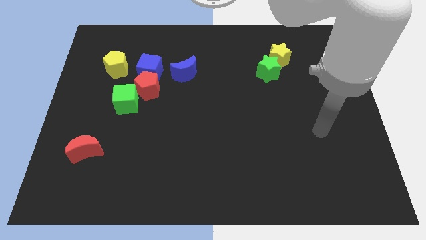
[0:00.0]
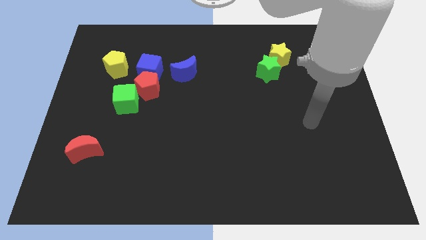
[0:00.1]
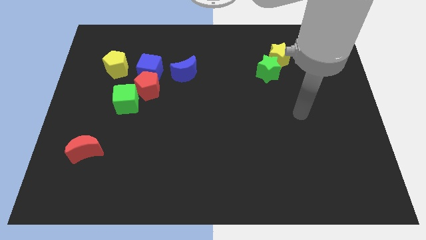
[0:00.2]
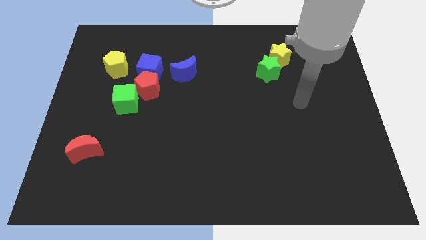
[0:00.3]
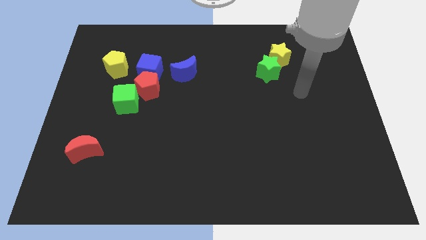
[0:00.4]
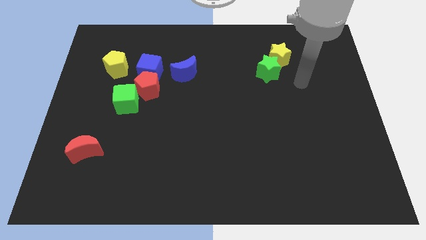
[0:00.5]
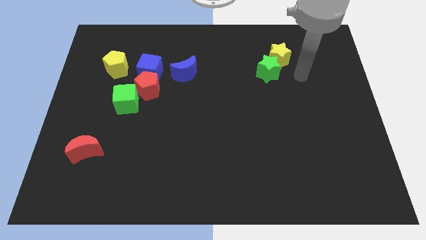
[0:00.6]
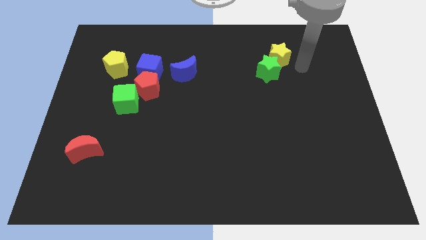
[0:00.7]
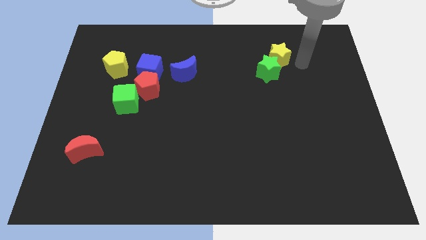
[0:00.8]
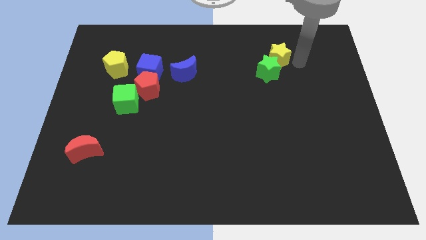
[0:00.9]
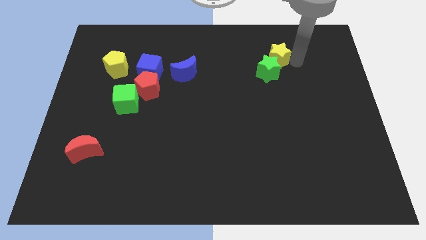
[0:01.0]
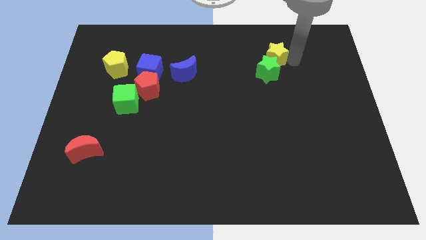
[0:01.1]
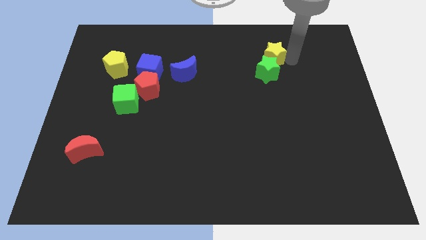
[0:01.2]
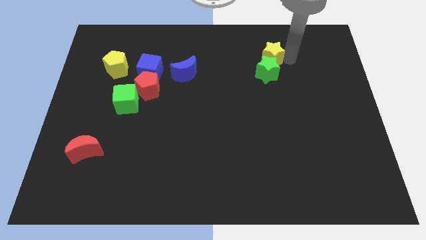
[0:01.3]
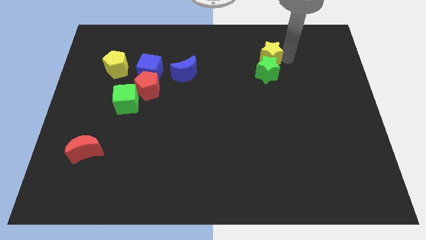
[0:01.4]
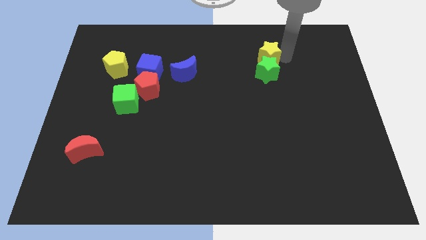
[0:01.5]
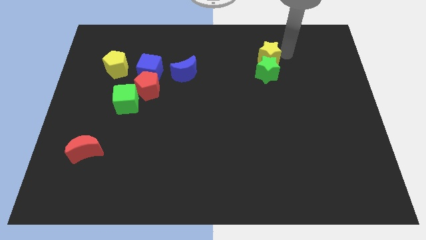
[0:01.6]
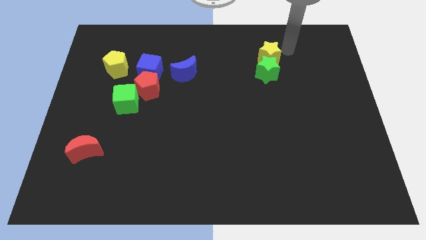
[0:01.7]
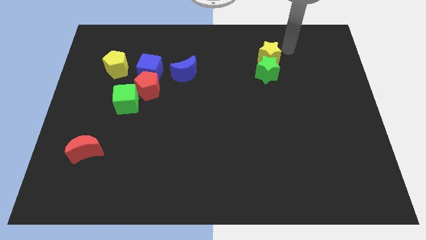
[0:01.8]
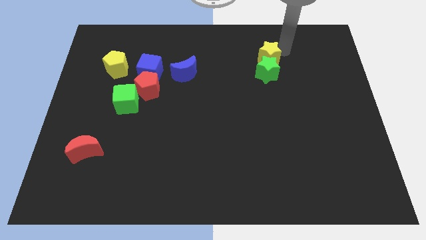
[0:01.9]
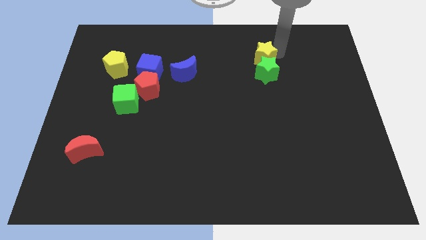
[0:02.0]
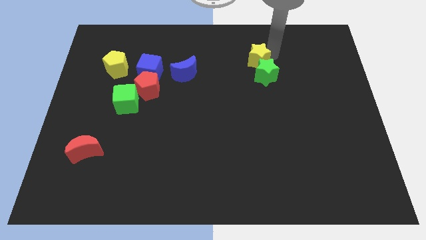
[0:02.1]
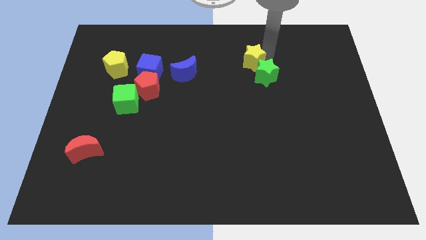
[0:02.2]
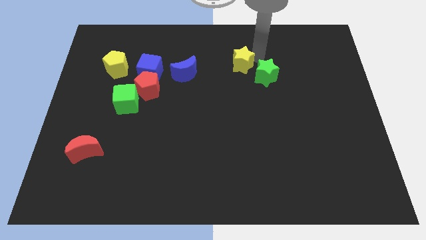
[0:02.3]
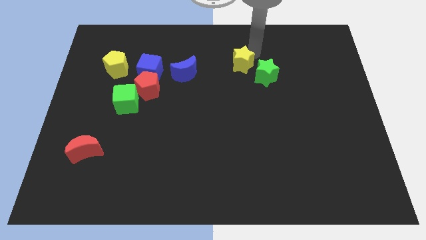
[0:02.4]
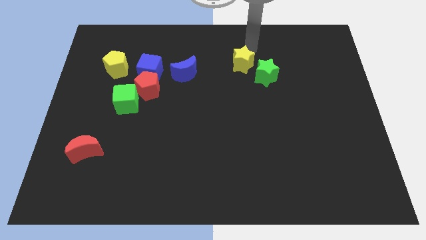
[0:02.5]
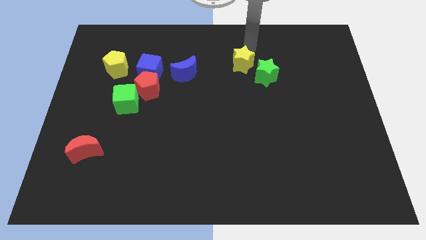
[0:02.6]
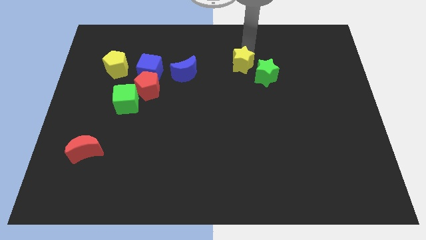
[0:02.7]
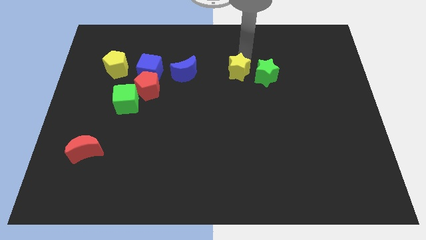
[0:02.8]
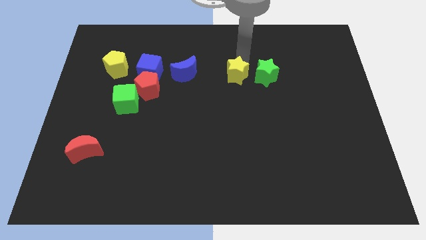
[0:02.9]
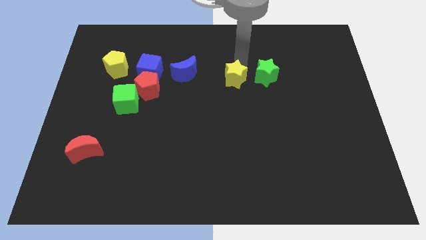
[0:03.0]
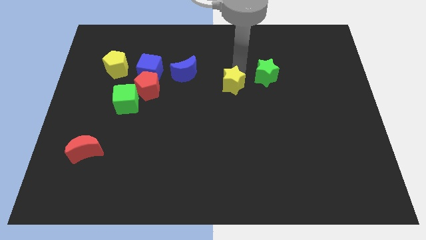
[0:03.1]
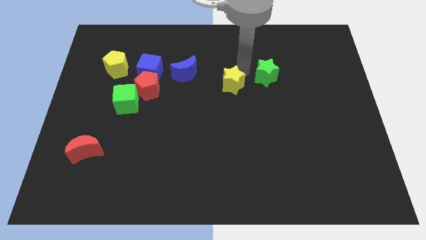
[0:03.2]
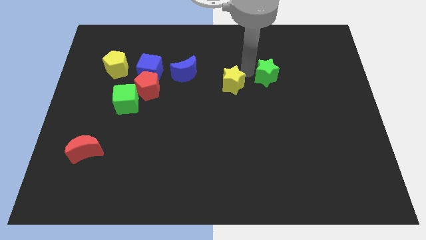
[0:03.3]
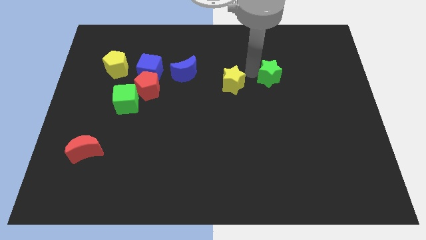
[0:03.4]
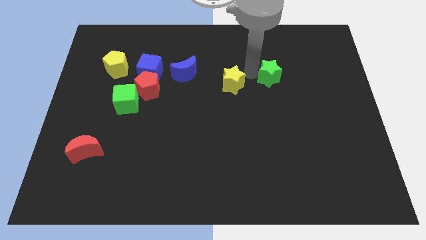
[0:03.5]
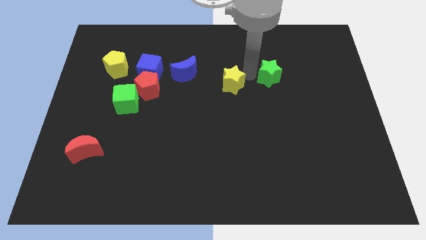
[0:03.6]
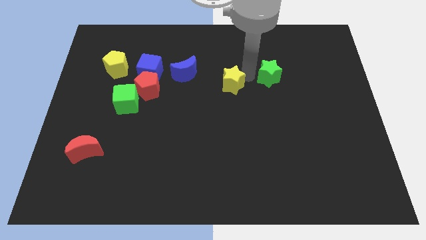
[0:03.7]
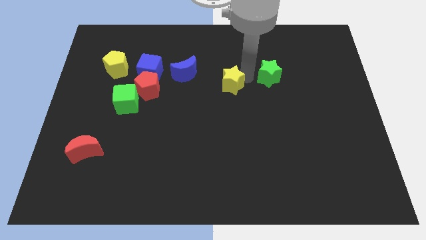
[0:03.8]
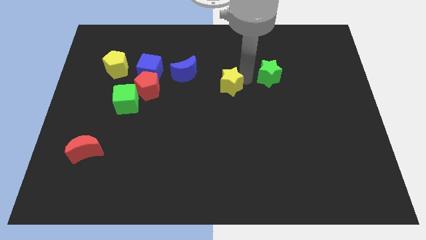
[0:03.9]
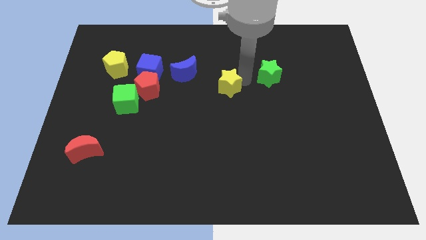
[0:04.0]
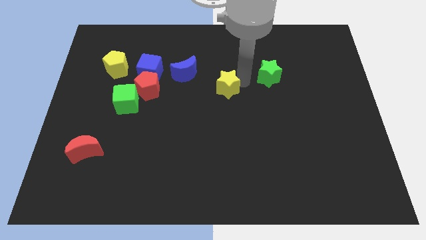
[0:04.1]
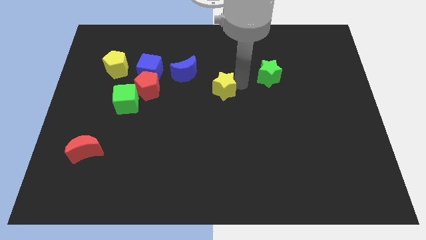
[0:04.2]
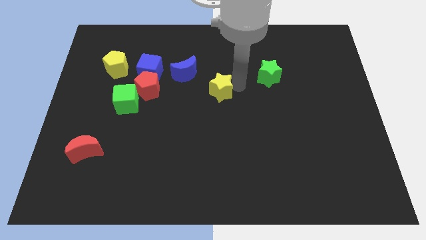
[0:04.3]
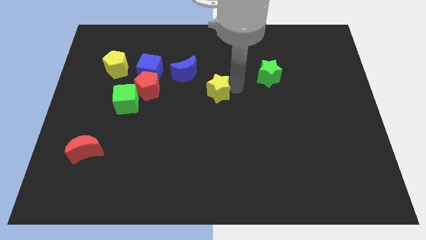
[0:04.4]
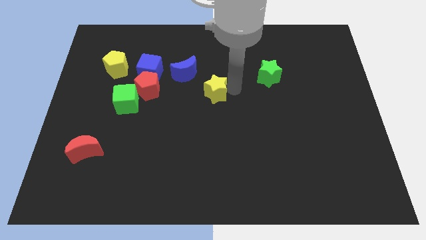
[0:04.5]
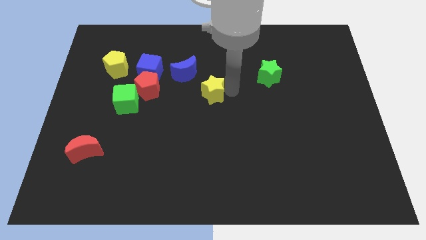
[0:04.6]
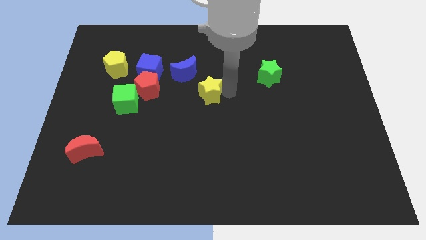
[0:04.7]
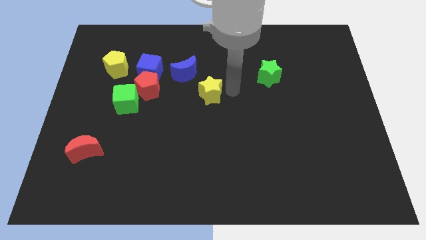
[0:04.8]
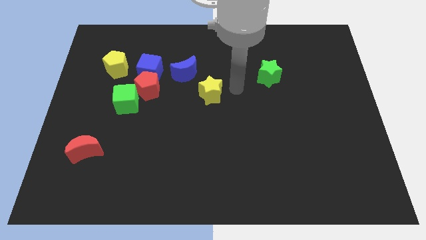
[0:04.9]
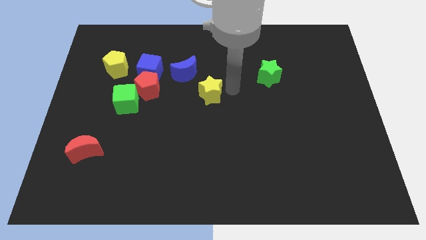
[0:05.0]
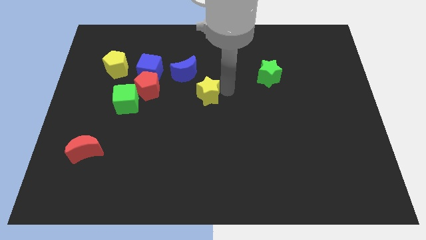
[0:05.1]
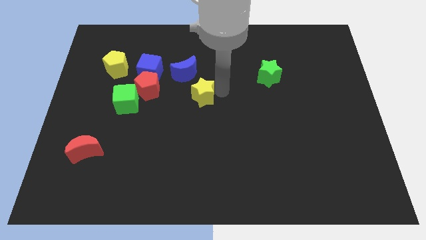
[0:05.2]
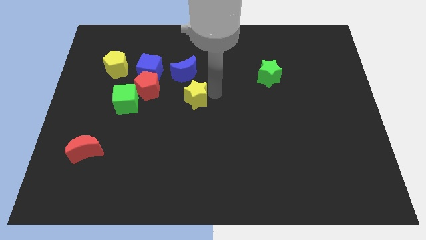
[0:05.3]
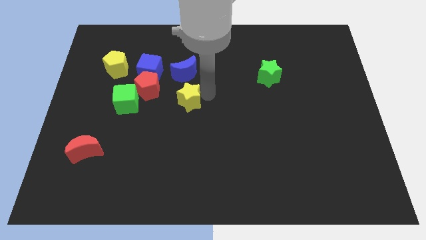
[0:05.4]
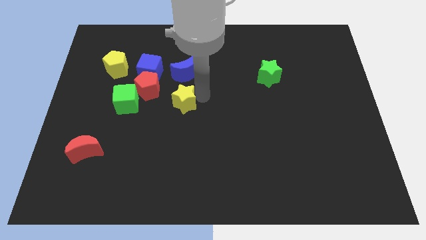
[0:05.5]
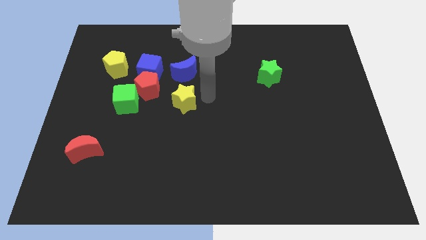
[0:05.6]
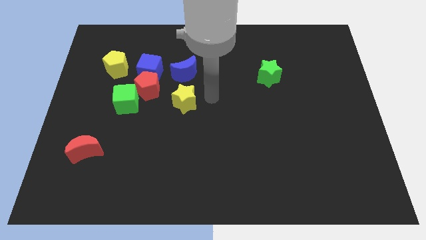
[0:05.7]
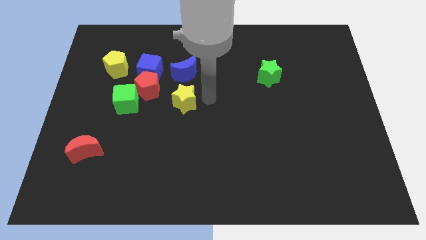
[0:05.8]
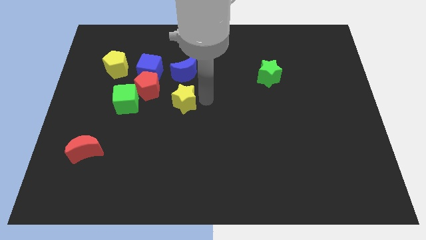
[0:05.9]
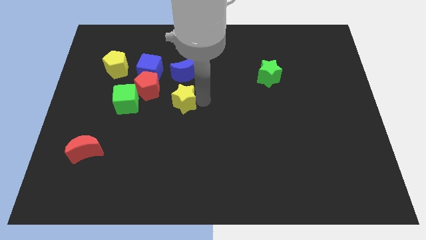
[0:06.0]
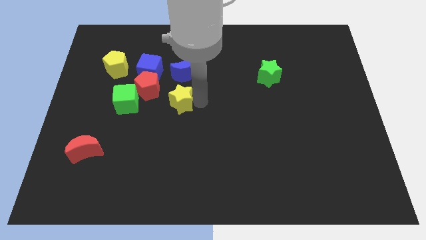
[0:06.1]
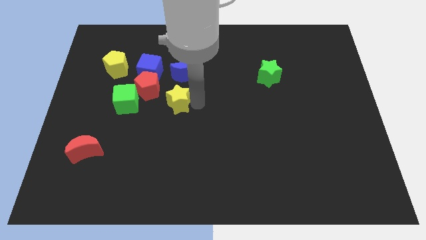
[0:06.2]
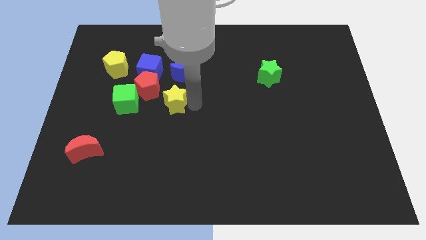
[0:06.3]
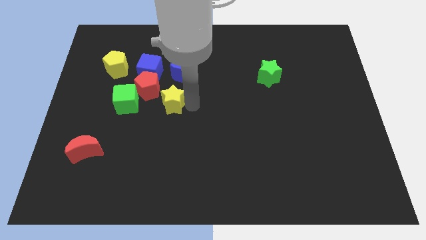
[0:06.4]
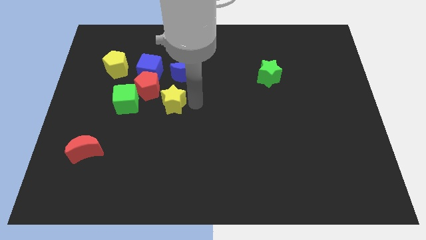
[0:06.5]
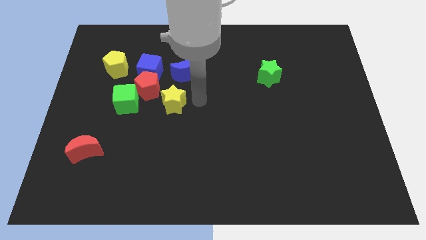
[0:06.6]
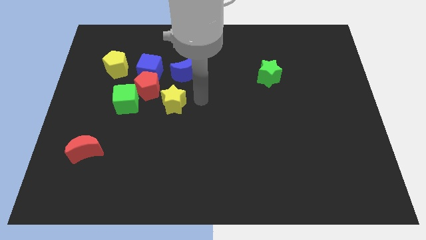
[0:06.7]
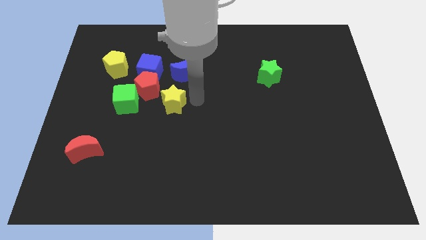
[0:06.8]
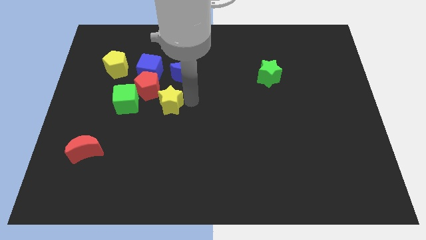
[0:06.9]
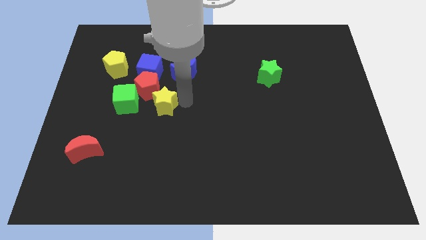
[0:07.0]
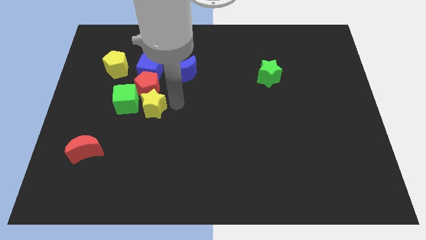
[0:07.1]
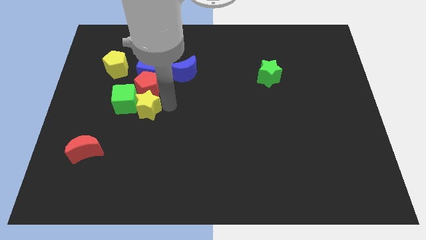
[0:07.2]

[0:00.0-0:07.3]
slide the yellow star to the green cube
